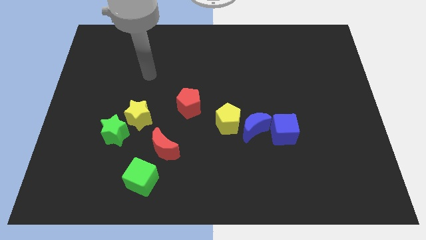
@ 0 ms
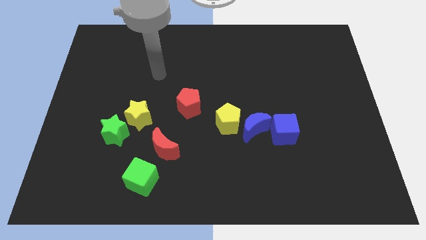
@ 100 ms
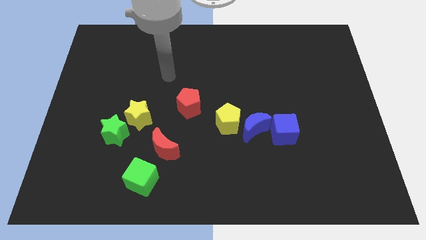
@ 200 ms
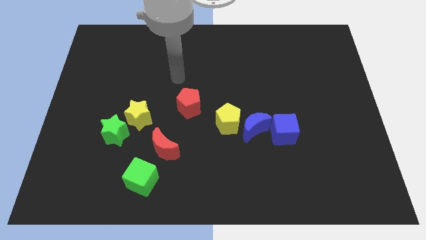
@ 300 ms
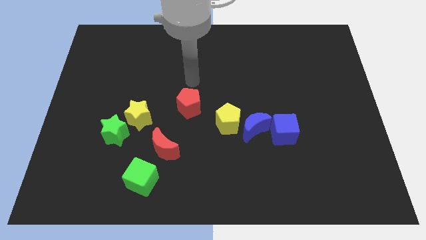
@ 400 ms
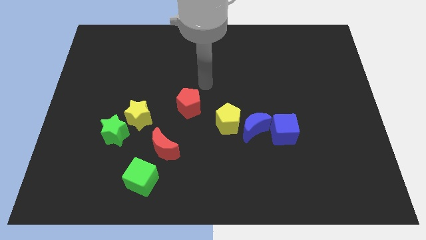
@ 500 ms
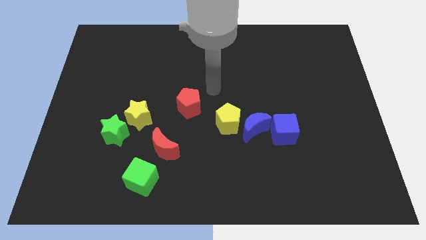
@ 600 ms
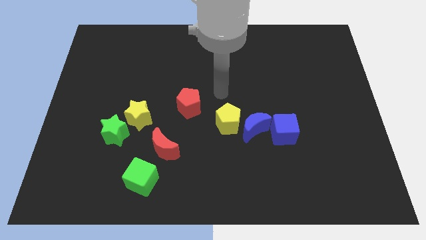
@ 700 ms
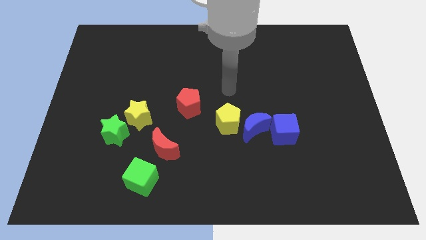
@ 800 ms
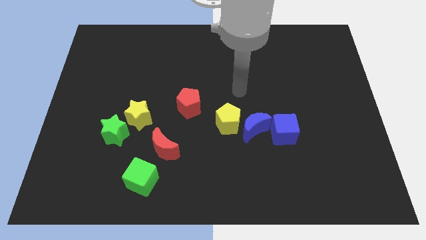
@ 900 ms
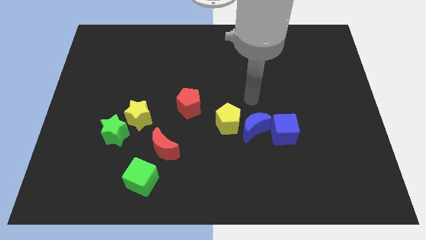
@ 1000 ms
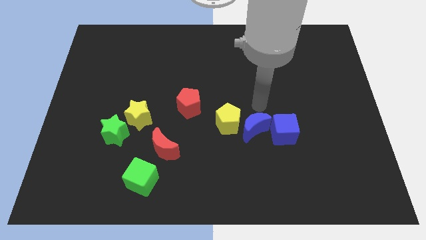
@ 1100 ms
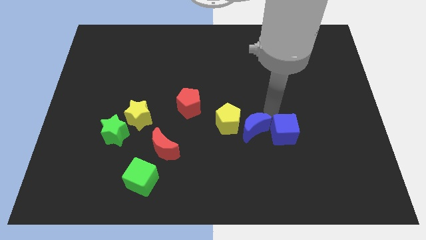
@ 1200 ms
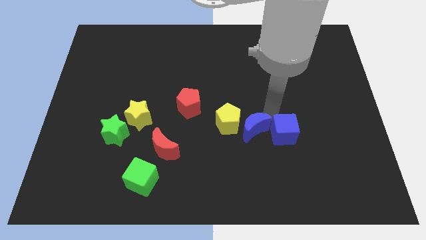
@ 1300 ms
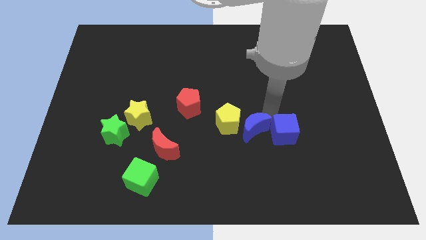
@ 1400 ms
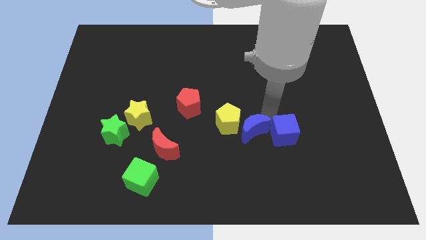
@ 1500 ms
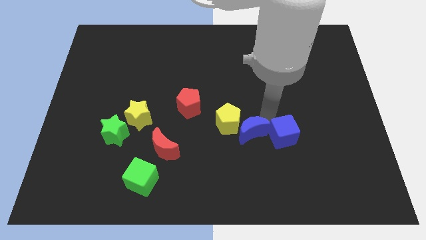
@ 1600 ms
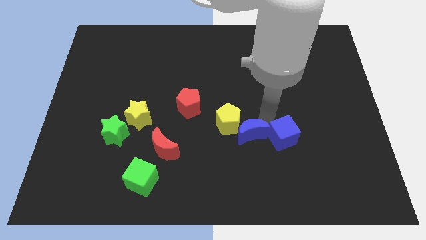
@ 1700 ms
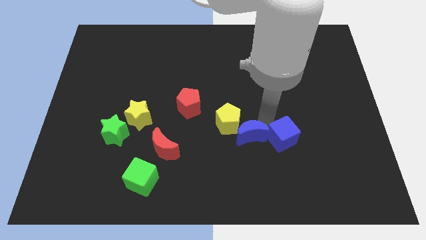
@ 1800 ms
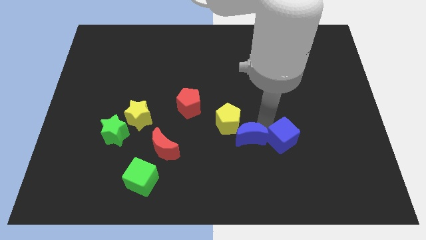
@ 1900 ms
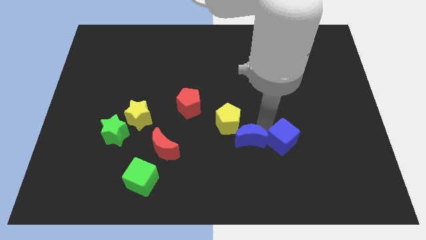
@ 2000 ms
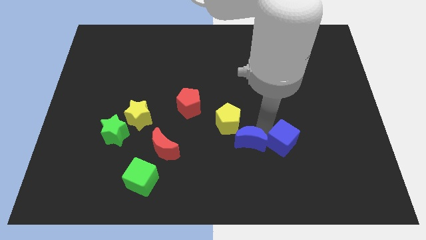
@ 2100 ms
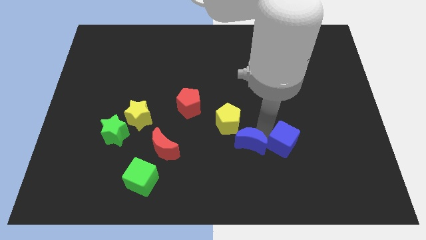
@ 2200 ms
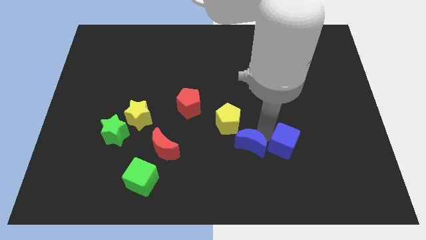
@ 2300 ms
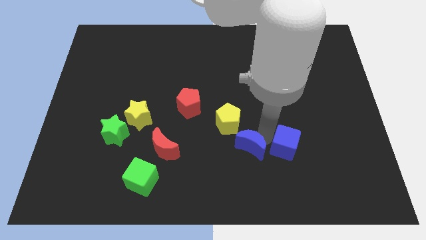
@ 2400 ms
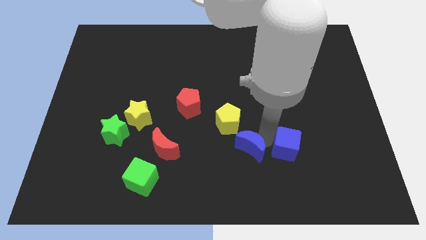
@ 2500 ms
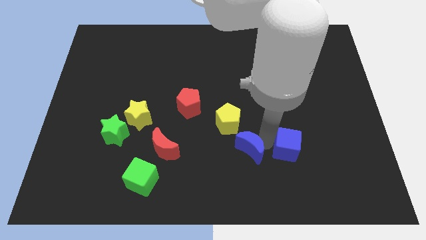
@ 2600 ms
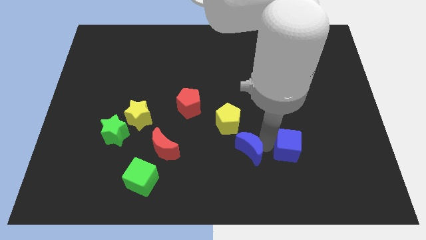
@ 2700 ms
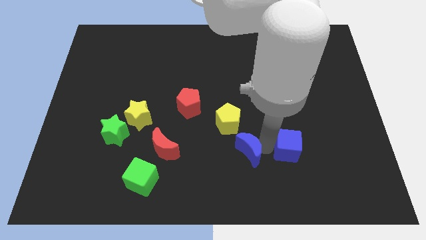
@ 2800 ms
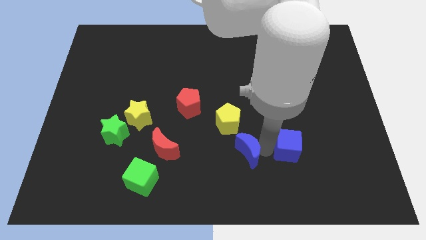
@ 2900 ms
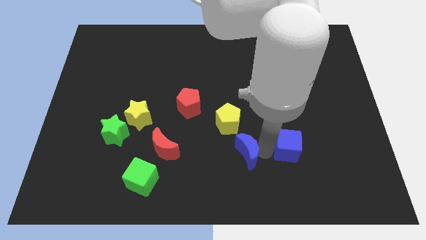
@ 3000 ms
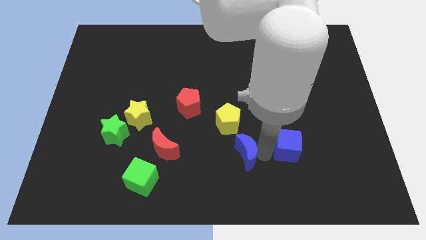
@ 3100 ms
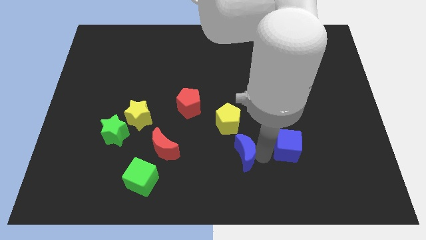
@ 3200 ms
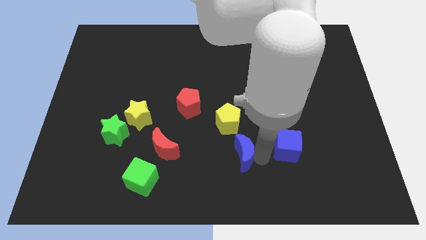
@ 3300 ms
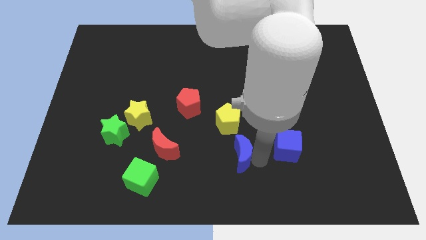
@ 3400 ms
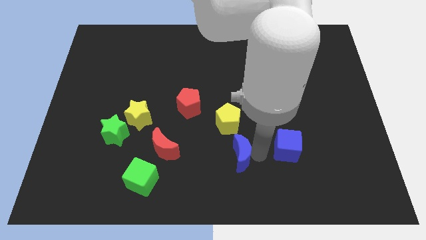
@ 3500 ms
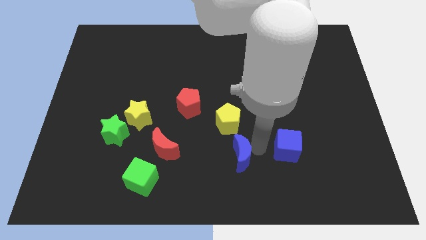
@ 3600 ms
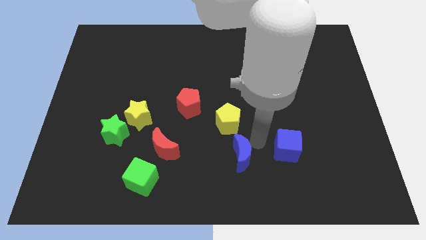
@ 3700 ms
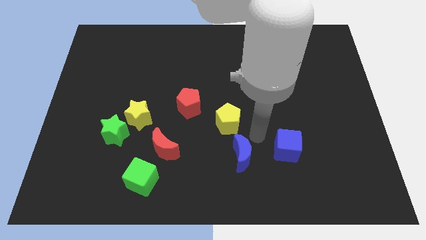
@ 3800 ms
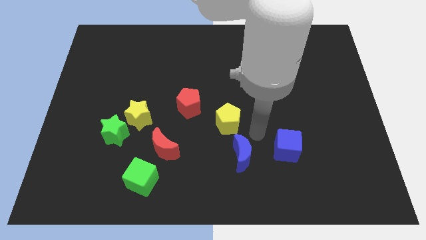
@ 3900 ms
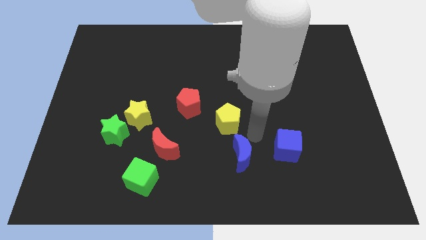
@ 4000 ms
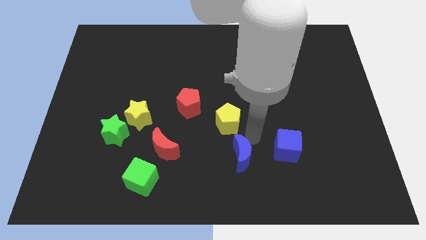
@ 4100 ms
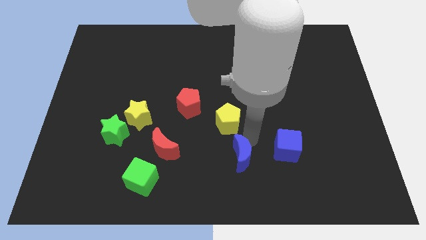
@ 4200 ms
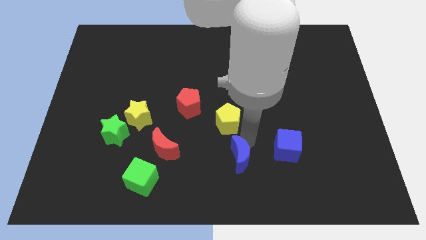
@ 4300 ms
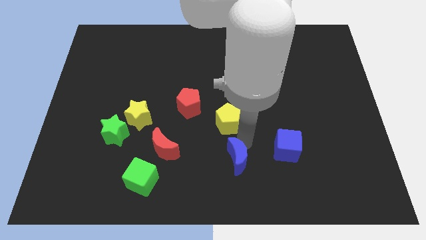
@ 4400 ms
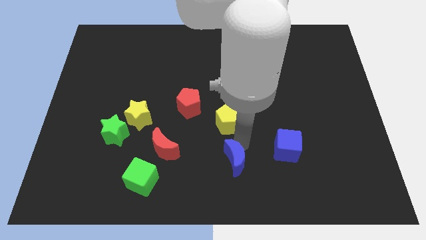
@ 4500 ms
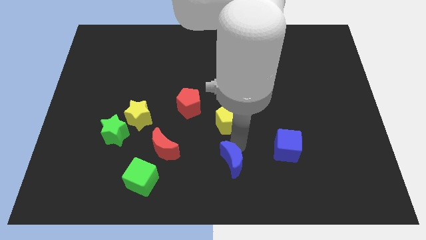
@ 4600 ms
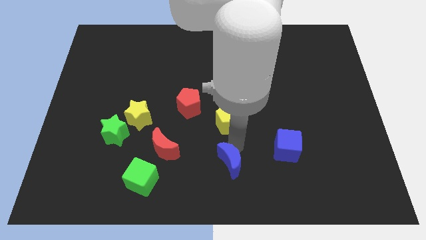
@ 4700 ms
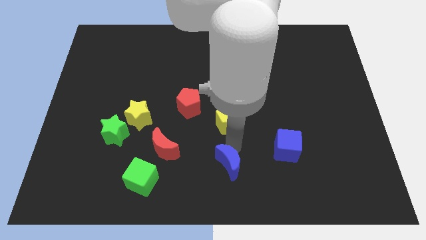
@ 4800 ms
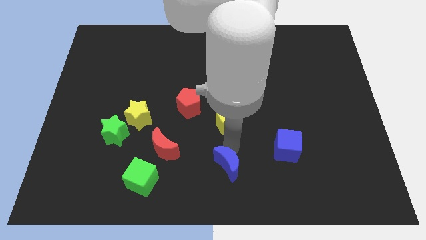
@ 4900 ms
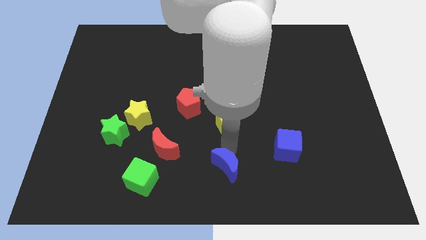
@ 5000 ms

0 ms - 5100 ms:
move the blue moon away from the yellow pentagon and blue cube

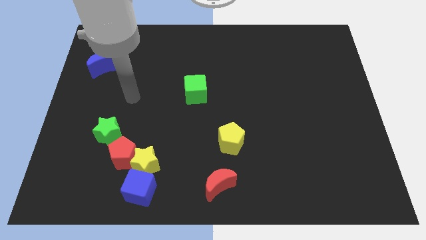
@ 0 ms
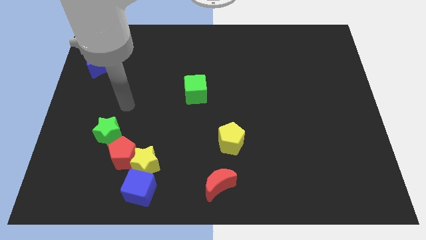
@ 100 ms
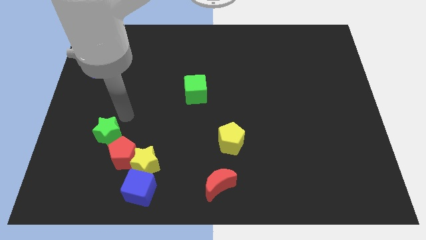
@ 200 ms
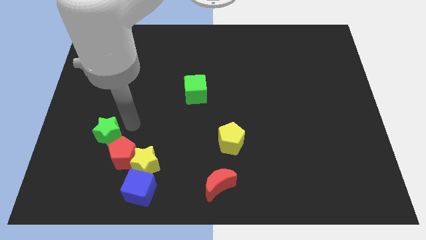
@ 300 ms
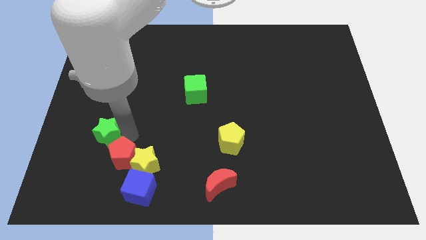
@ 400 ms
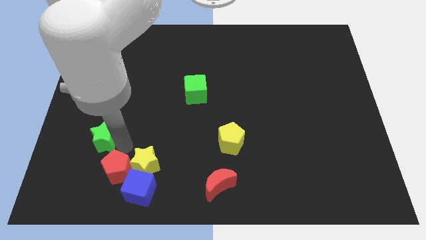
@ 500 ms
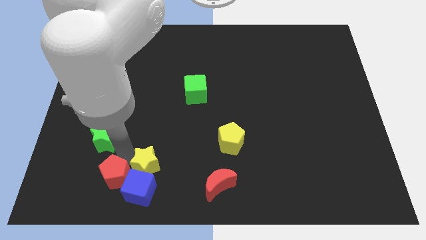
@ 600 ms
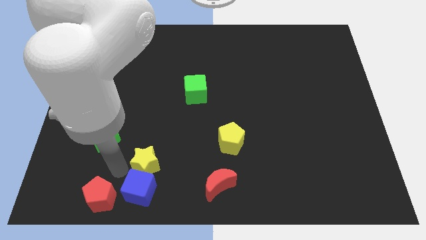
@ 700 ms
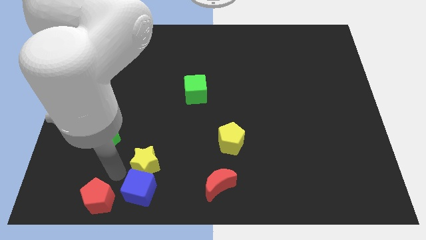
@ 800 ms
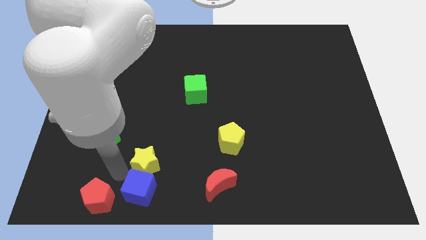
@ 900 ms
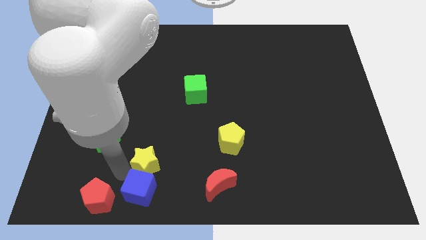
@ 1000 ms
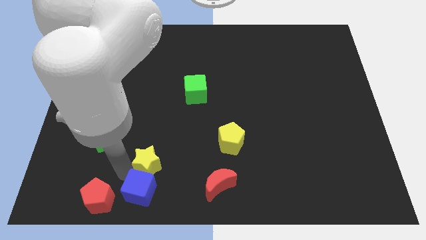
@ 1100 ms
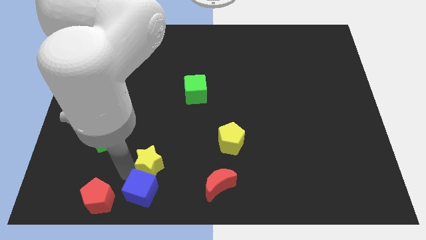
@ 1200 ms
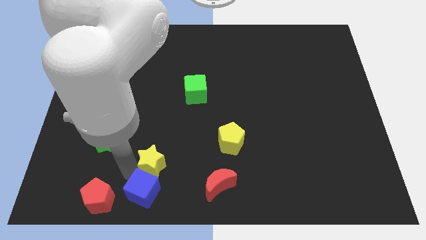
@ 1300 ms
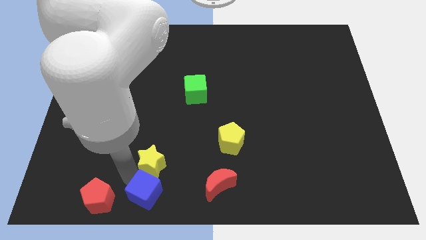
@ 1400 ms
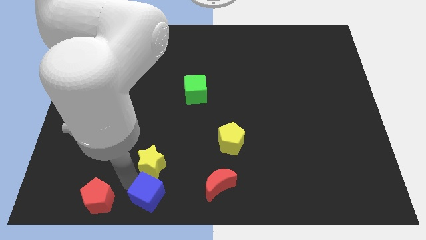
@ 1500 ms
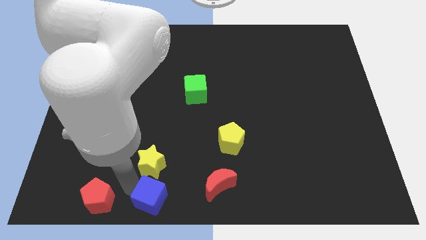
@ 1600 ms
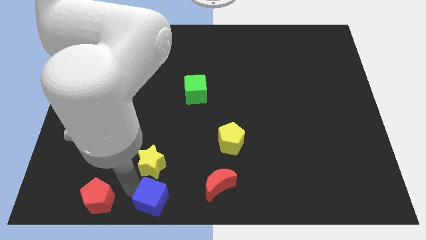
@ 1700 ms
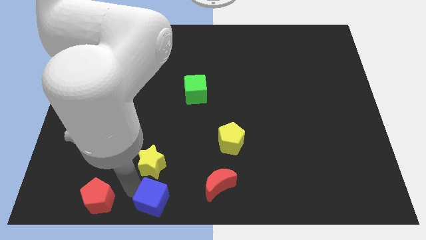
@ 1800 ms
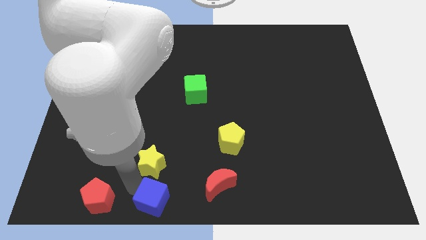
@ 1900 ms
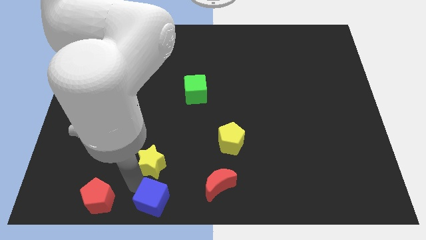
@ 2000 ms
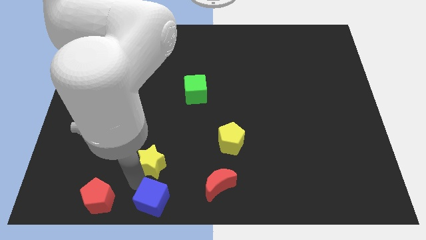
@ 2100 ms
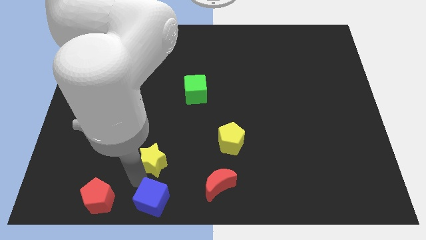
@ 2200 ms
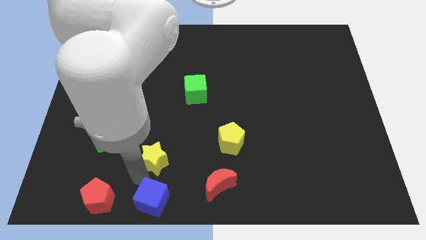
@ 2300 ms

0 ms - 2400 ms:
pull the yellow star apart from the red pentagon and blue cube

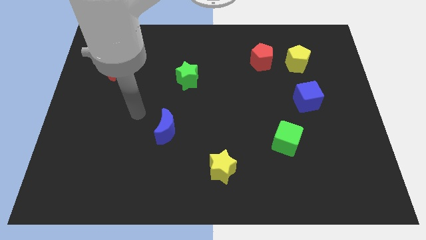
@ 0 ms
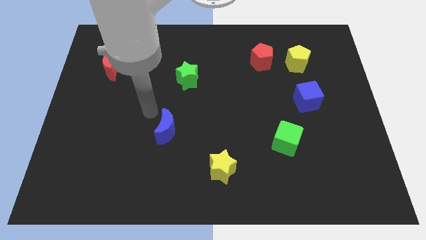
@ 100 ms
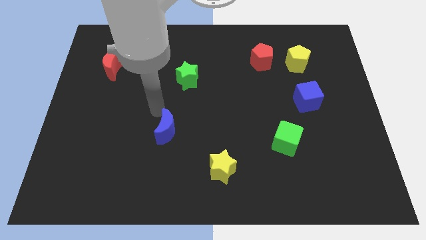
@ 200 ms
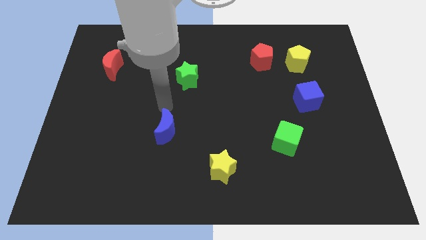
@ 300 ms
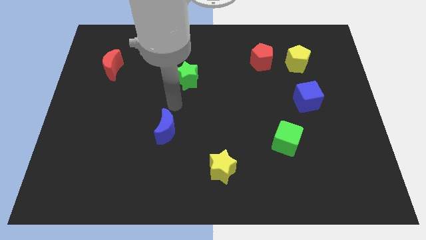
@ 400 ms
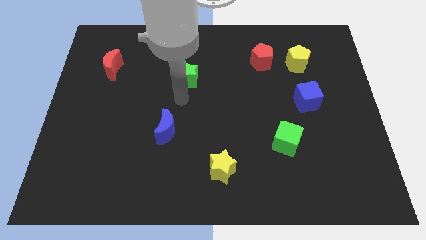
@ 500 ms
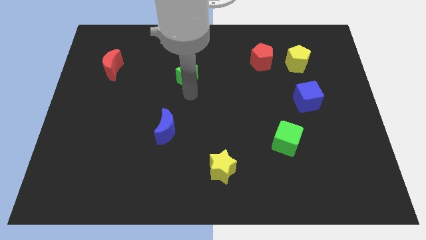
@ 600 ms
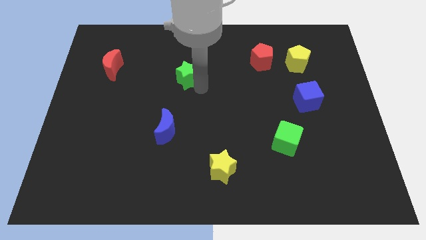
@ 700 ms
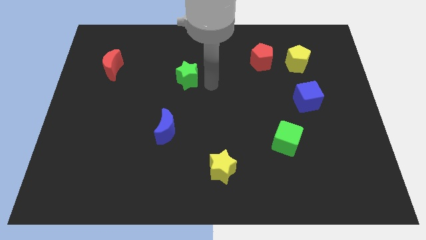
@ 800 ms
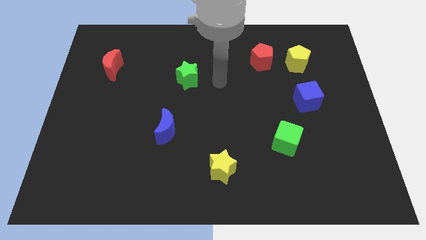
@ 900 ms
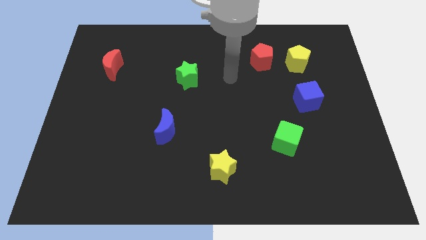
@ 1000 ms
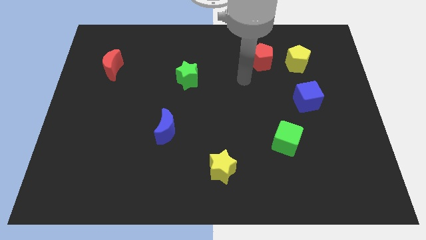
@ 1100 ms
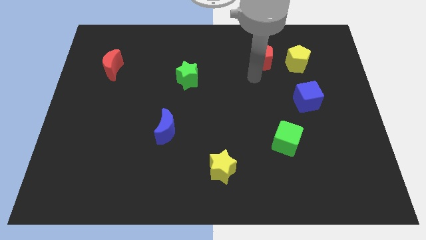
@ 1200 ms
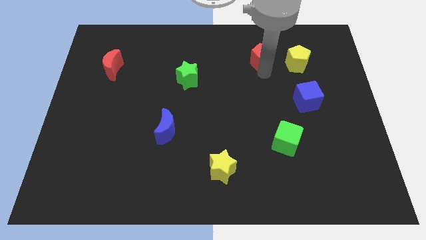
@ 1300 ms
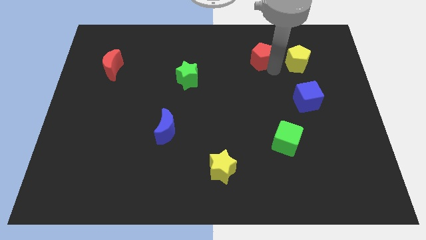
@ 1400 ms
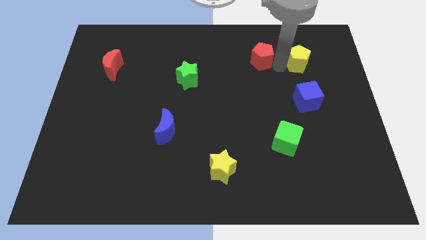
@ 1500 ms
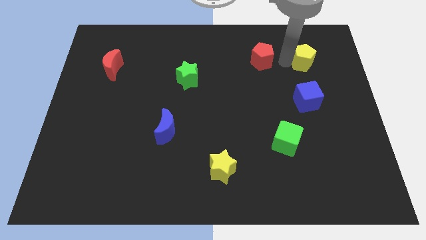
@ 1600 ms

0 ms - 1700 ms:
pull the red pentagon apart from the yellow pentagon

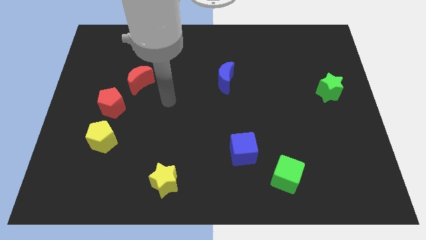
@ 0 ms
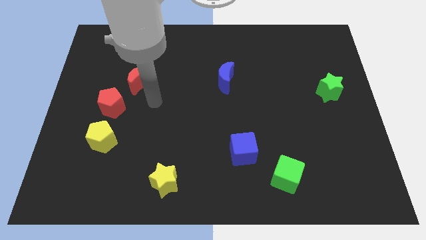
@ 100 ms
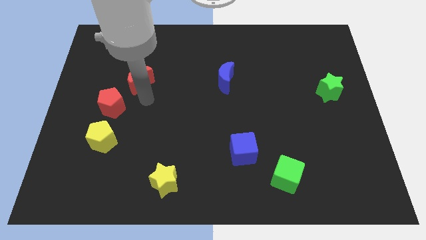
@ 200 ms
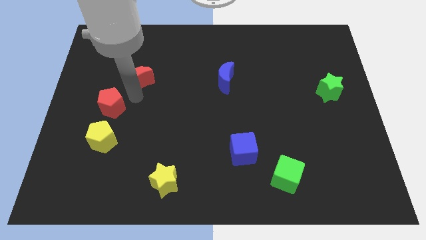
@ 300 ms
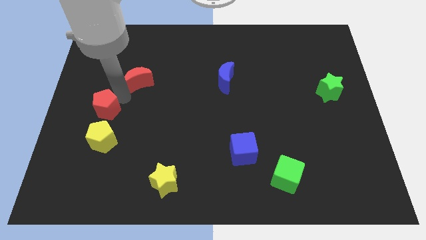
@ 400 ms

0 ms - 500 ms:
pull the red moon apart from the red pentagon
